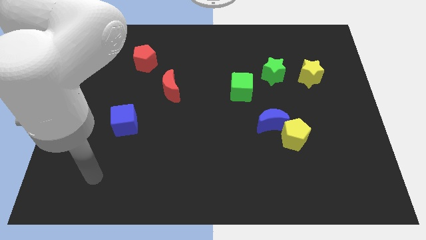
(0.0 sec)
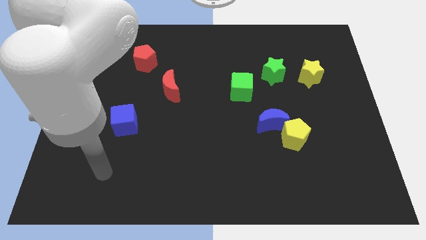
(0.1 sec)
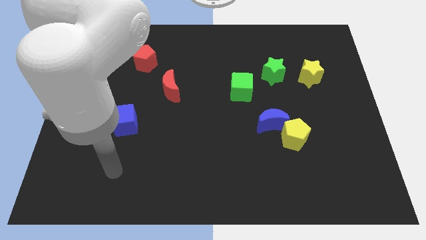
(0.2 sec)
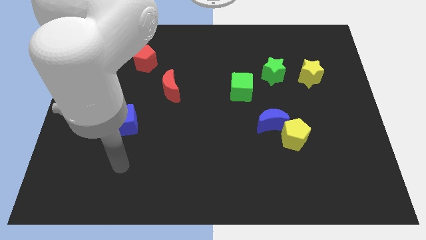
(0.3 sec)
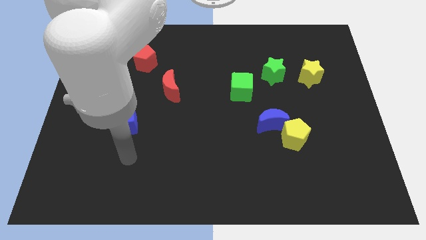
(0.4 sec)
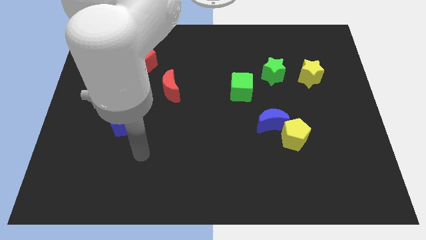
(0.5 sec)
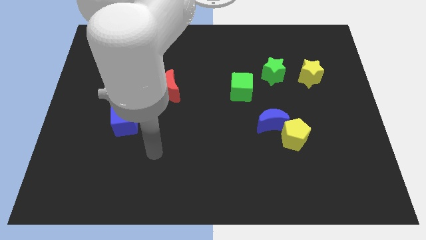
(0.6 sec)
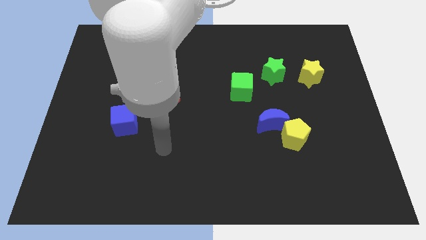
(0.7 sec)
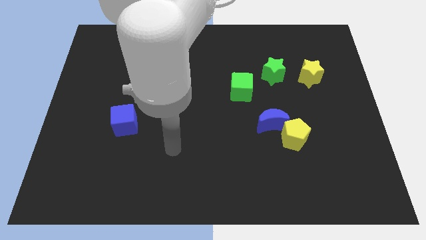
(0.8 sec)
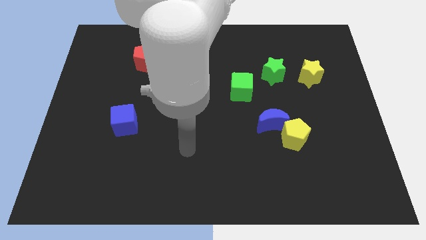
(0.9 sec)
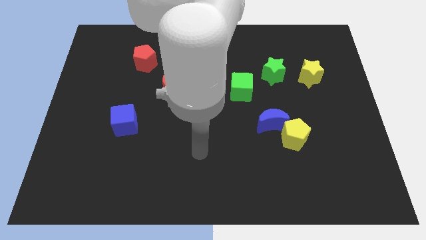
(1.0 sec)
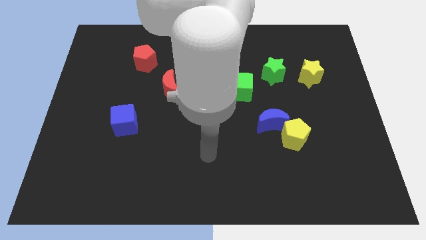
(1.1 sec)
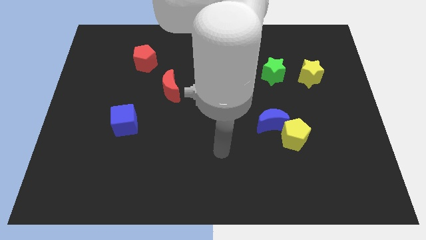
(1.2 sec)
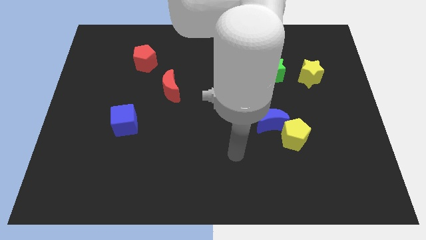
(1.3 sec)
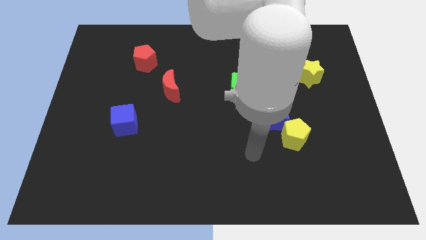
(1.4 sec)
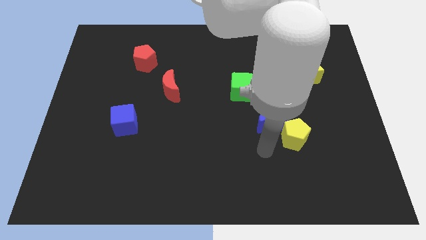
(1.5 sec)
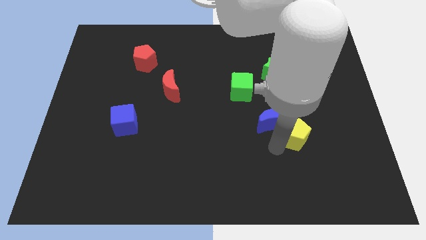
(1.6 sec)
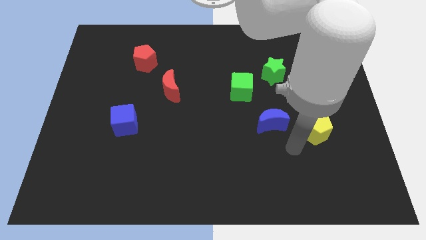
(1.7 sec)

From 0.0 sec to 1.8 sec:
pull the blue moon apart from the yellow pentagon

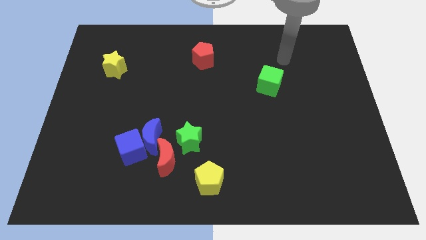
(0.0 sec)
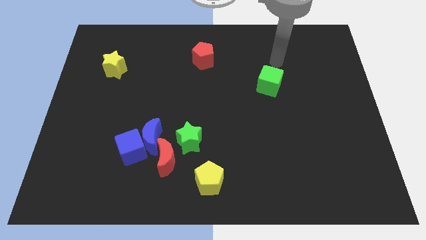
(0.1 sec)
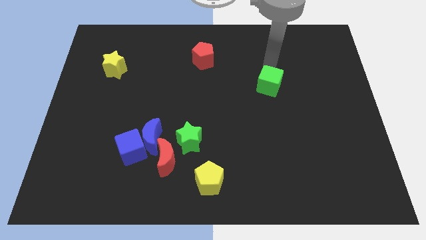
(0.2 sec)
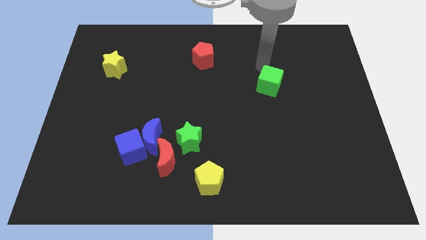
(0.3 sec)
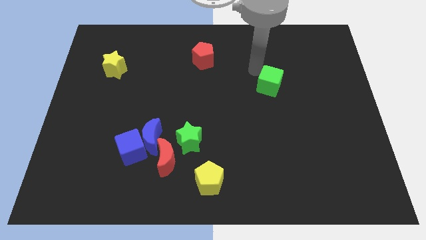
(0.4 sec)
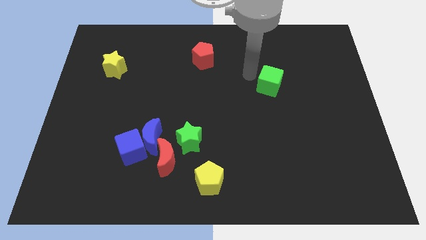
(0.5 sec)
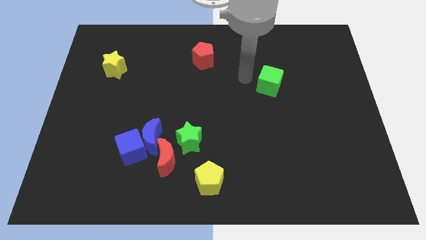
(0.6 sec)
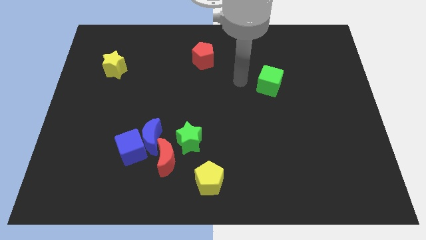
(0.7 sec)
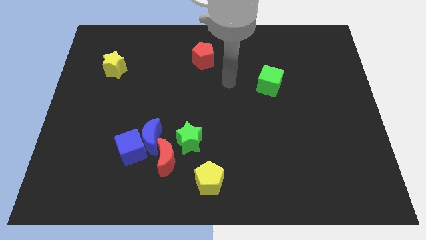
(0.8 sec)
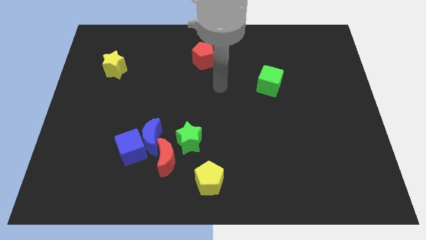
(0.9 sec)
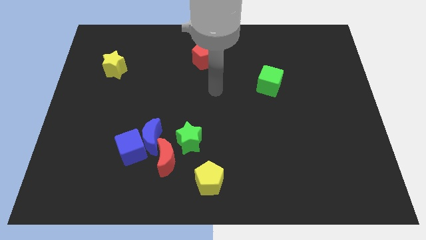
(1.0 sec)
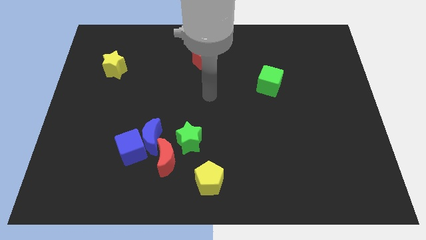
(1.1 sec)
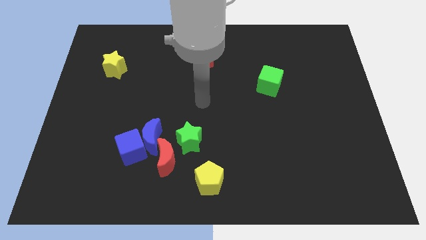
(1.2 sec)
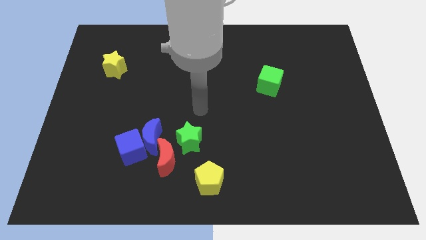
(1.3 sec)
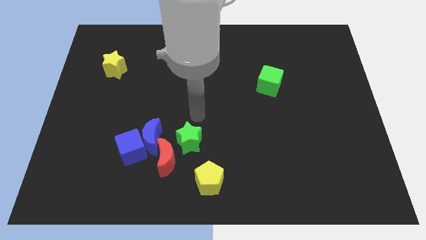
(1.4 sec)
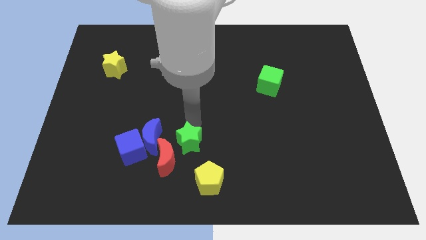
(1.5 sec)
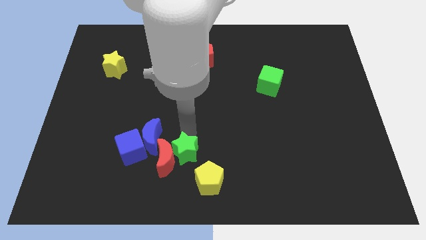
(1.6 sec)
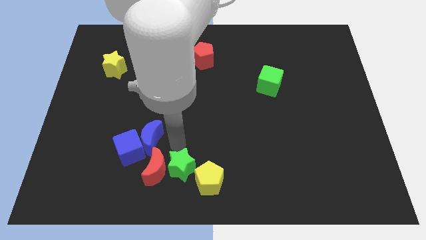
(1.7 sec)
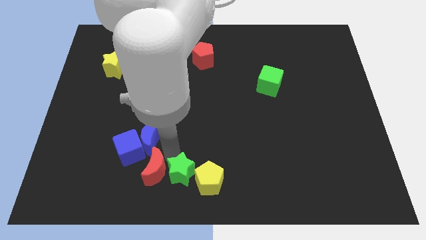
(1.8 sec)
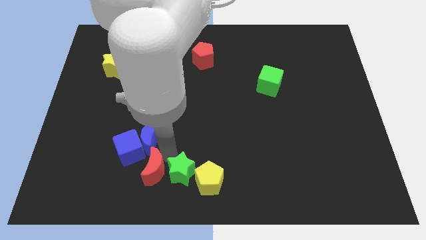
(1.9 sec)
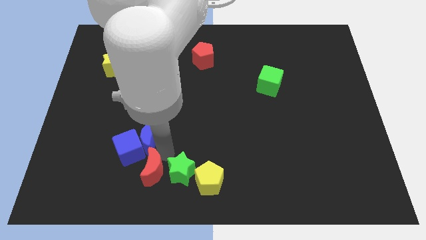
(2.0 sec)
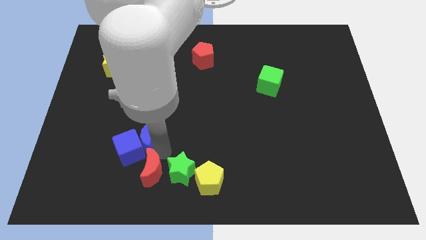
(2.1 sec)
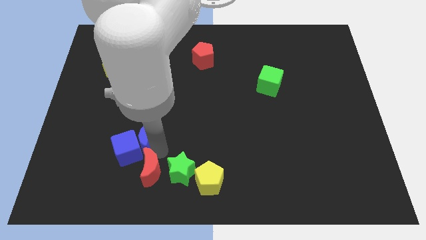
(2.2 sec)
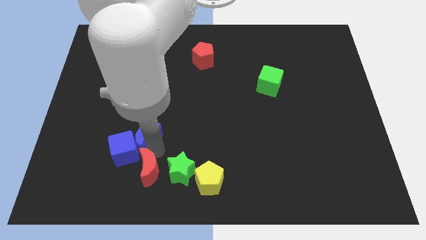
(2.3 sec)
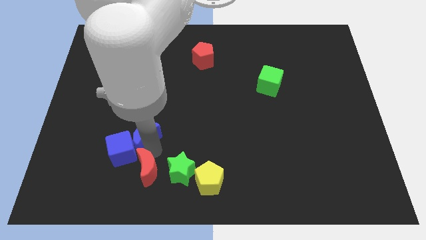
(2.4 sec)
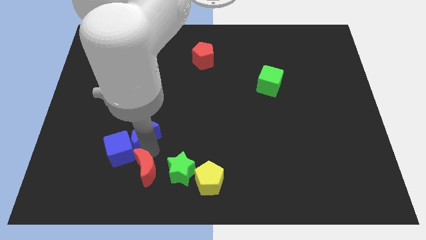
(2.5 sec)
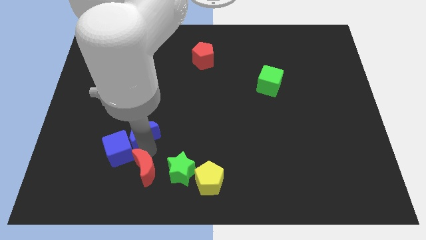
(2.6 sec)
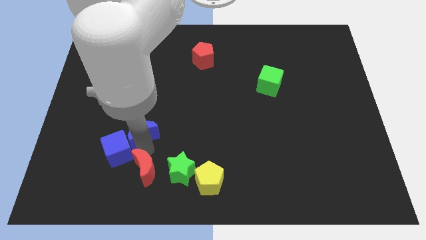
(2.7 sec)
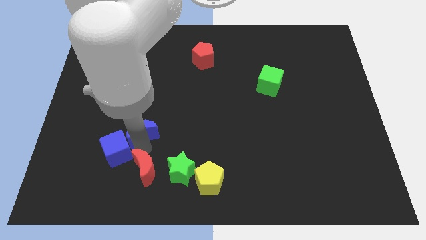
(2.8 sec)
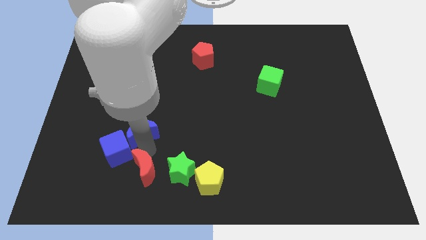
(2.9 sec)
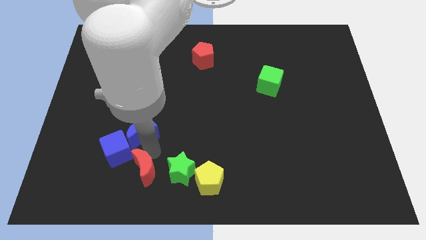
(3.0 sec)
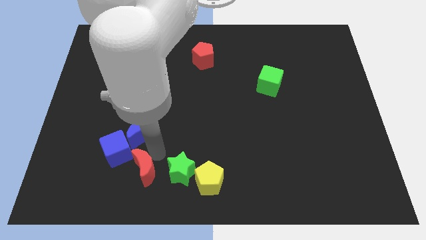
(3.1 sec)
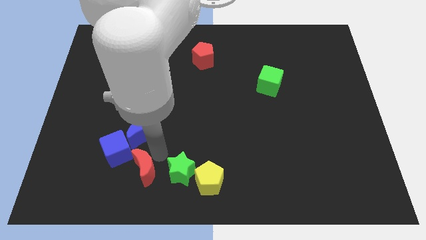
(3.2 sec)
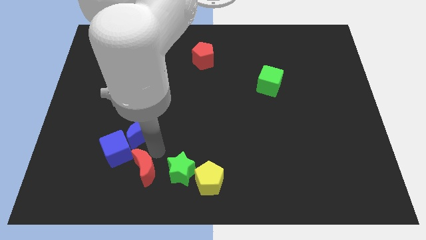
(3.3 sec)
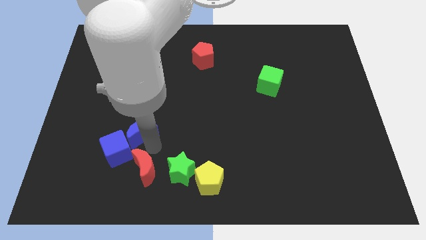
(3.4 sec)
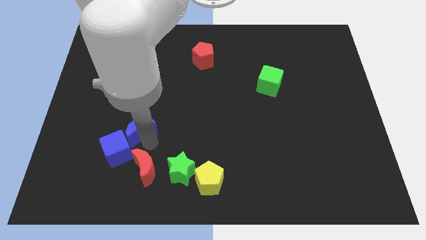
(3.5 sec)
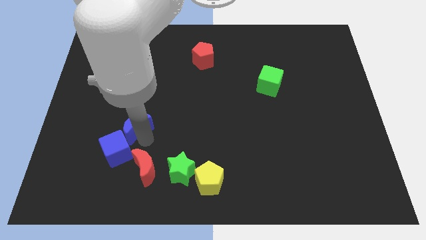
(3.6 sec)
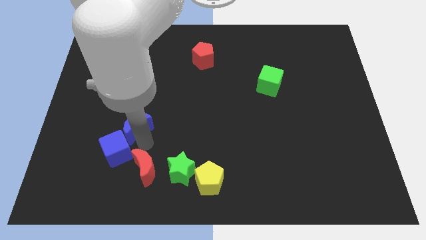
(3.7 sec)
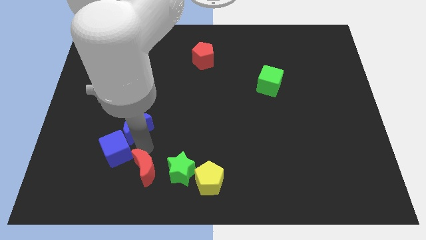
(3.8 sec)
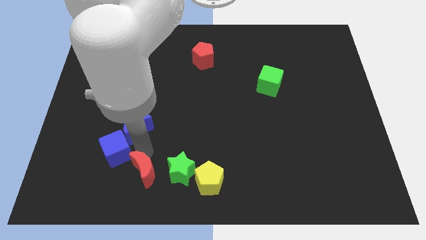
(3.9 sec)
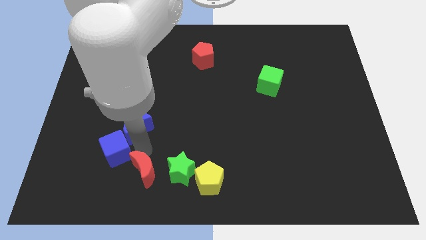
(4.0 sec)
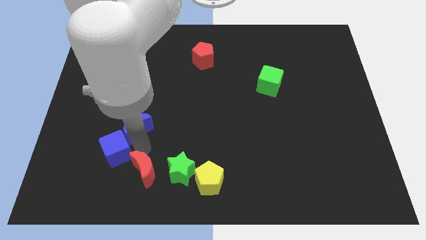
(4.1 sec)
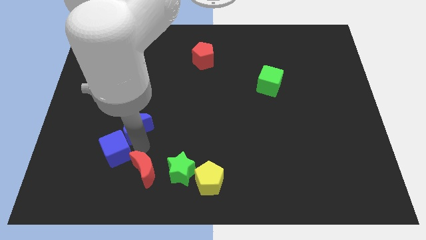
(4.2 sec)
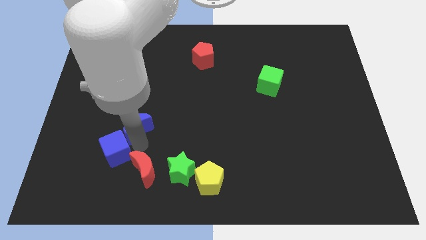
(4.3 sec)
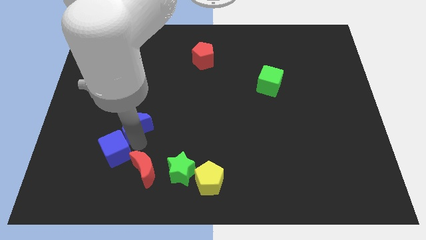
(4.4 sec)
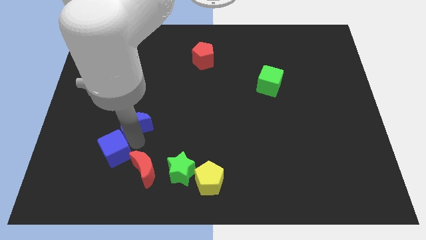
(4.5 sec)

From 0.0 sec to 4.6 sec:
move the blue moon away from the blue cube, red moon, and green star

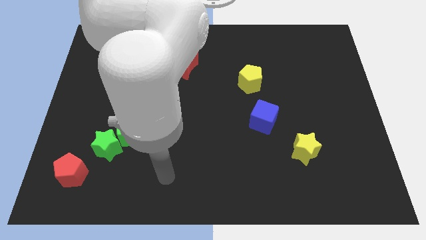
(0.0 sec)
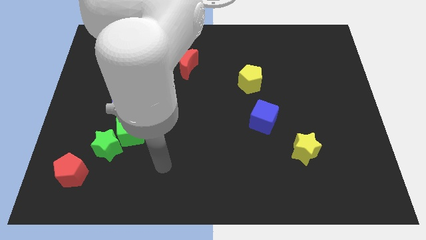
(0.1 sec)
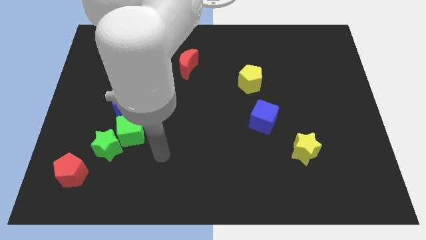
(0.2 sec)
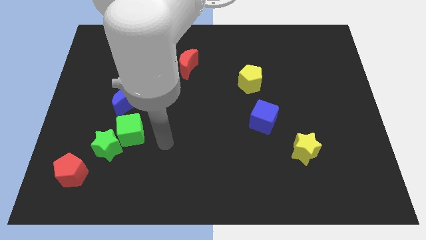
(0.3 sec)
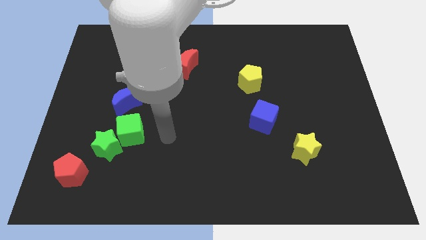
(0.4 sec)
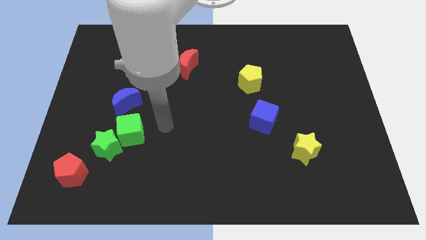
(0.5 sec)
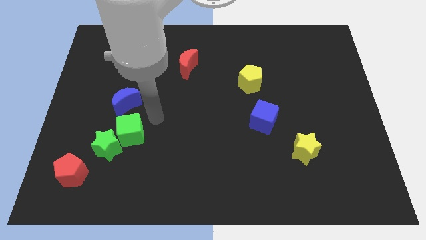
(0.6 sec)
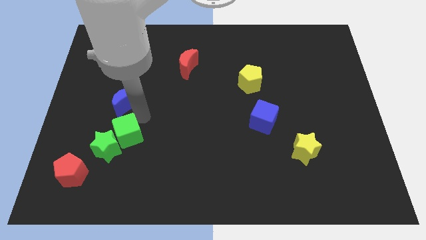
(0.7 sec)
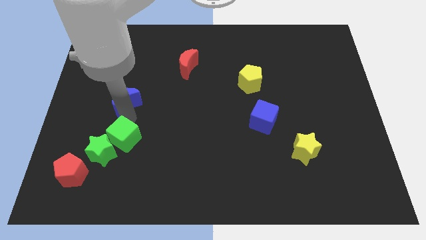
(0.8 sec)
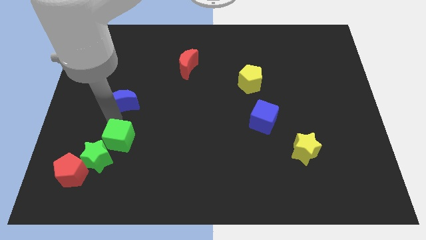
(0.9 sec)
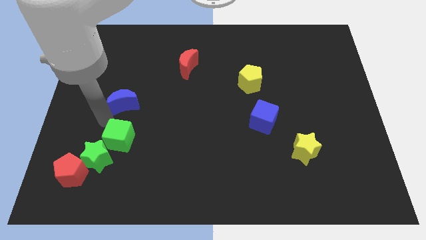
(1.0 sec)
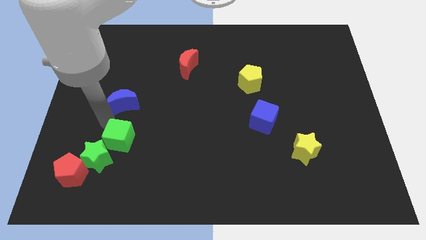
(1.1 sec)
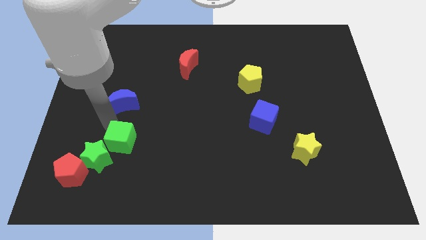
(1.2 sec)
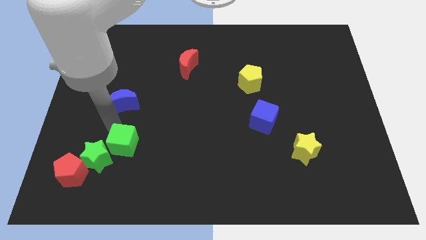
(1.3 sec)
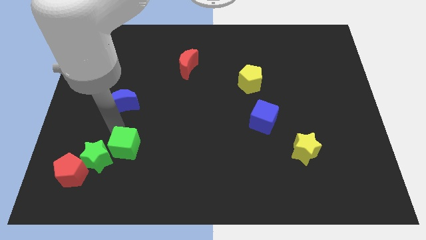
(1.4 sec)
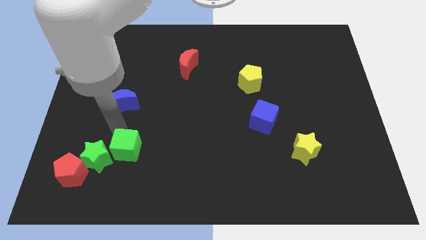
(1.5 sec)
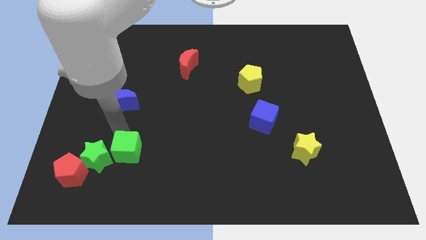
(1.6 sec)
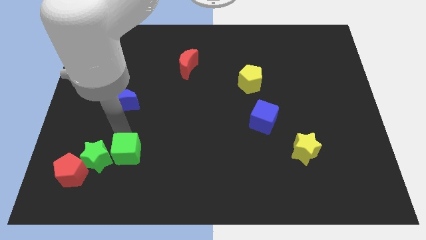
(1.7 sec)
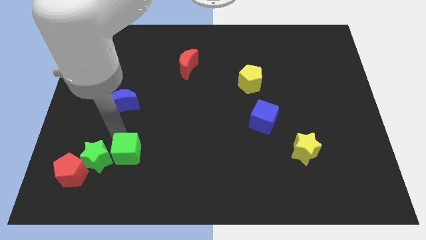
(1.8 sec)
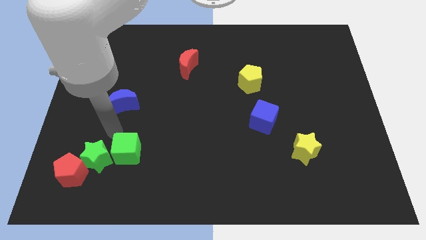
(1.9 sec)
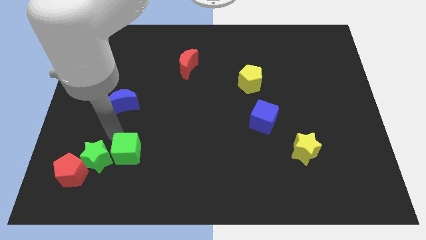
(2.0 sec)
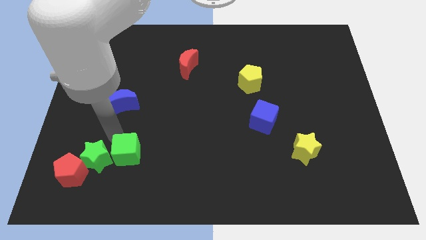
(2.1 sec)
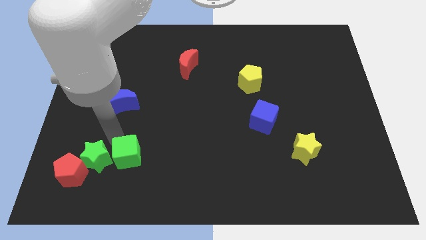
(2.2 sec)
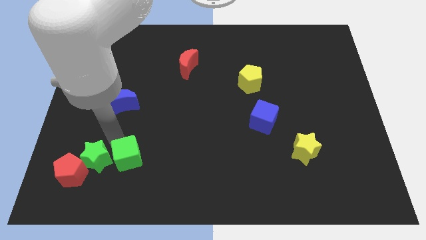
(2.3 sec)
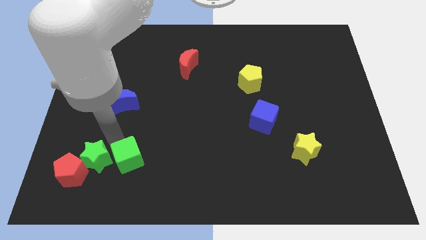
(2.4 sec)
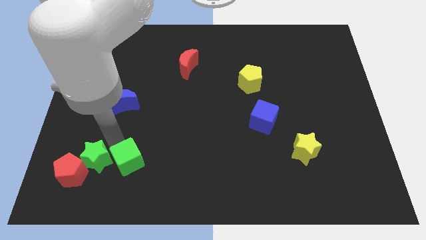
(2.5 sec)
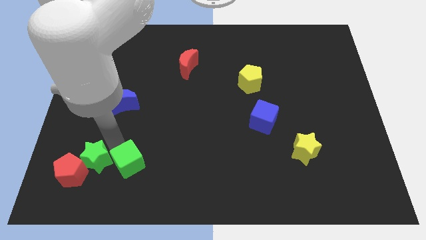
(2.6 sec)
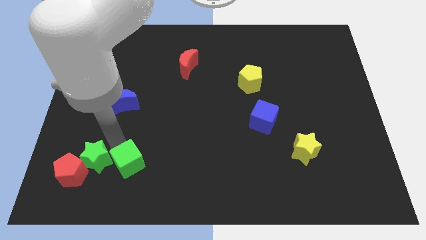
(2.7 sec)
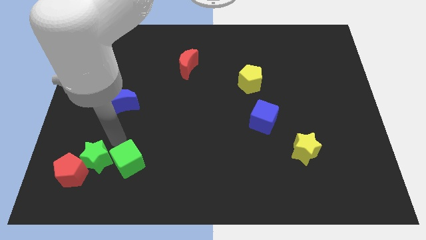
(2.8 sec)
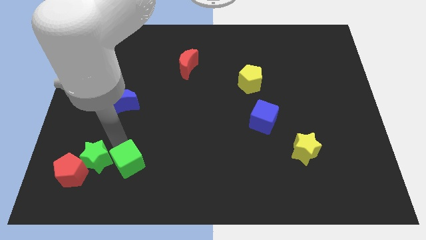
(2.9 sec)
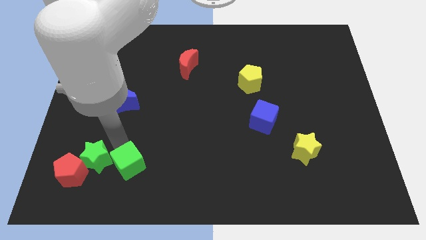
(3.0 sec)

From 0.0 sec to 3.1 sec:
move the green cube away from the green star and blue moon

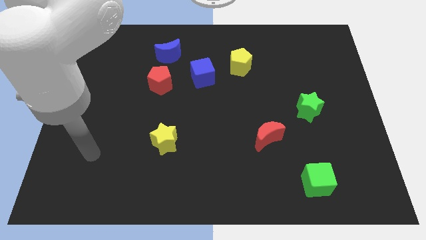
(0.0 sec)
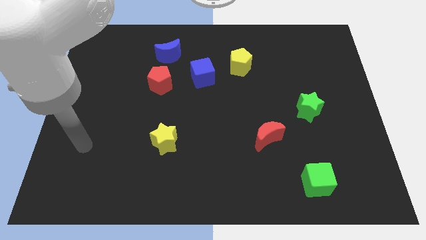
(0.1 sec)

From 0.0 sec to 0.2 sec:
separate the red pentagon from the blue moon
